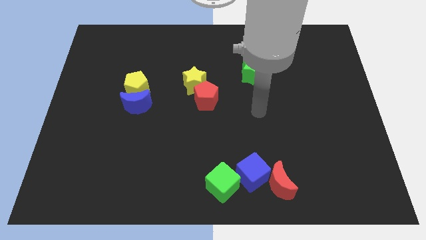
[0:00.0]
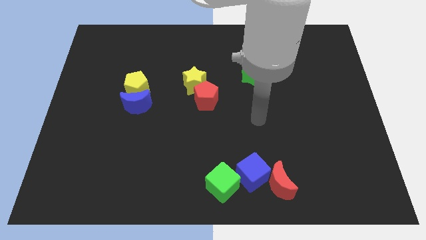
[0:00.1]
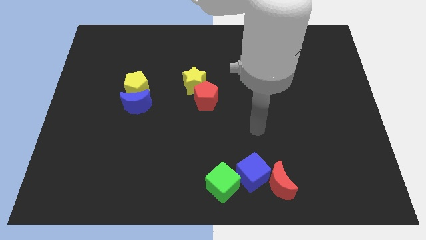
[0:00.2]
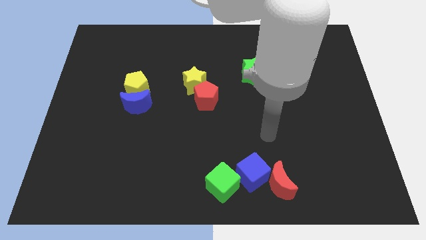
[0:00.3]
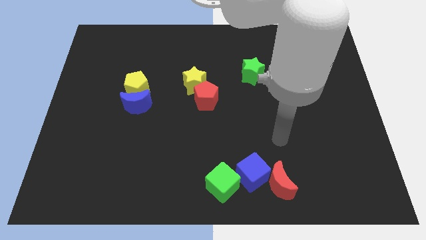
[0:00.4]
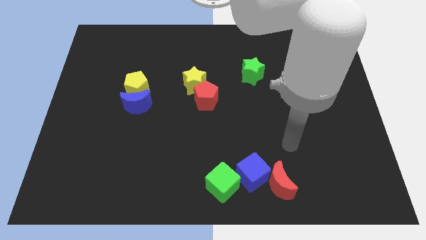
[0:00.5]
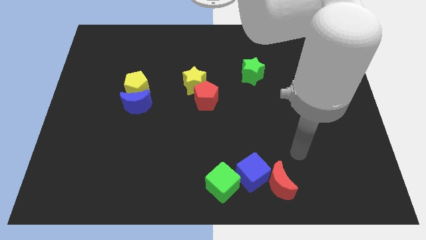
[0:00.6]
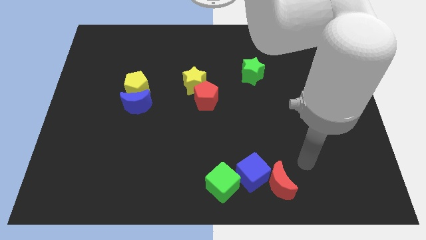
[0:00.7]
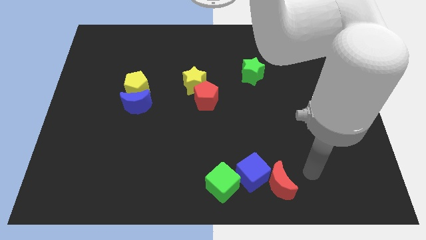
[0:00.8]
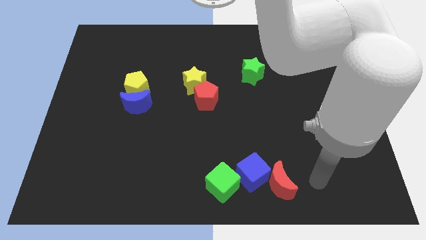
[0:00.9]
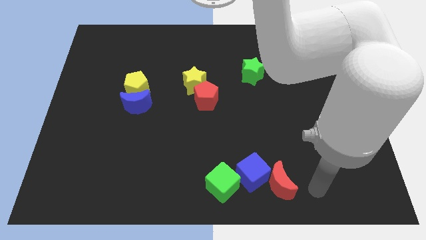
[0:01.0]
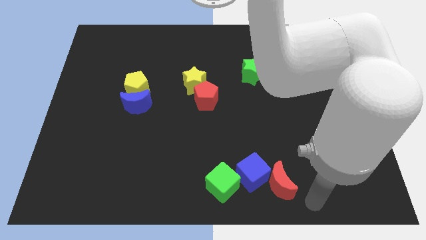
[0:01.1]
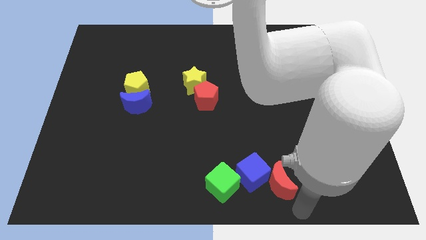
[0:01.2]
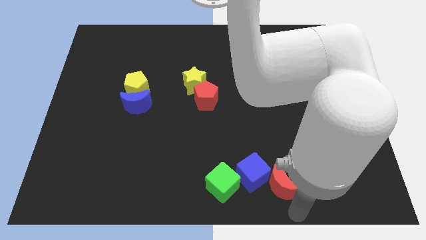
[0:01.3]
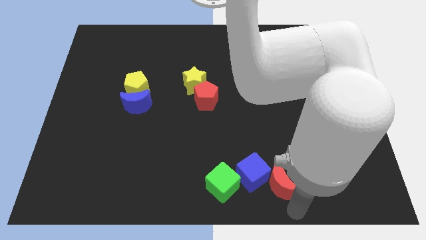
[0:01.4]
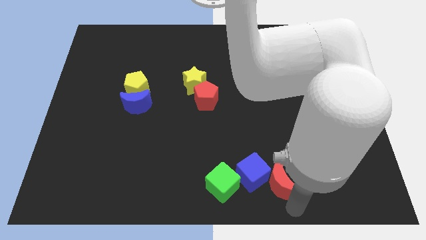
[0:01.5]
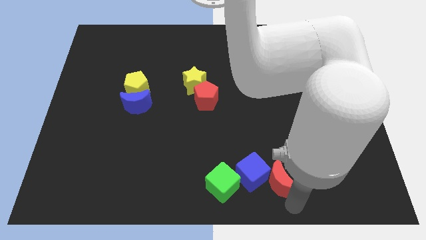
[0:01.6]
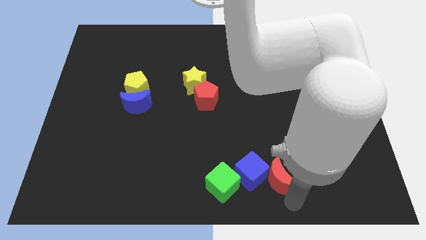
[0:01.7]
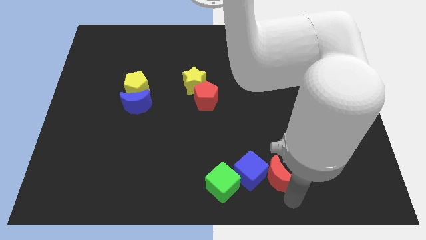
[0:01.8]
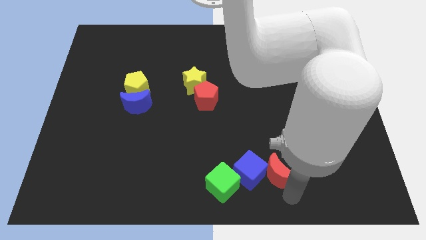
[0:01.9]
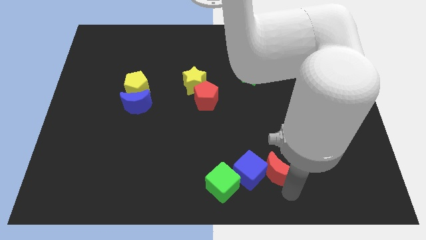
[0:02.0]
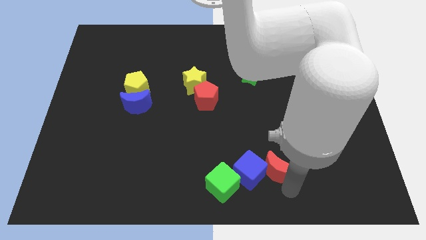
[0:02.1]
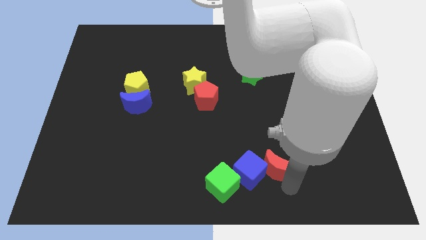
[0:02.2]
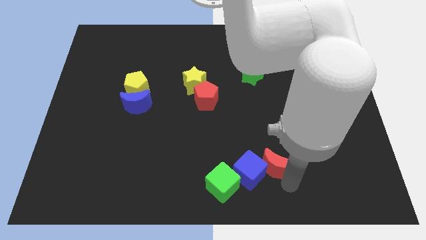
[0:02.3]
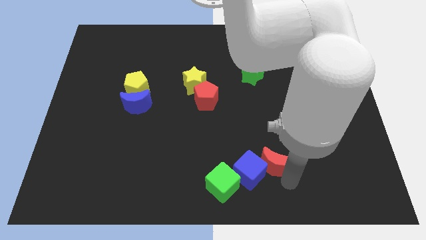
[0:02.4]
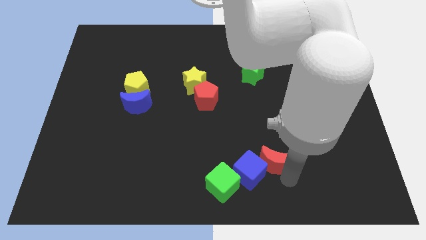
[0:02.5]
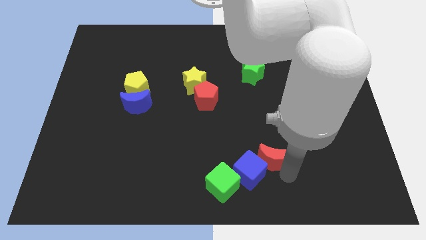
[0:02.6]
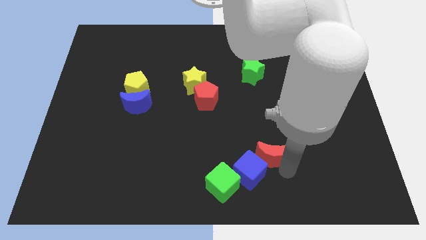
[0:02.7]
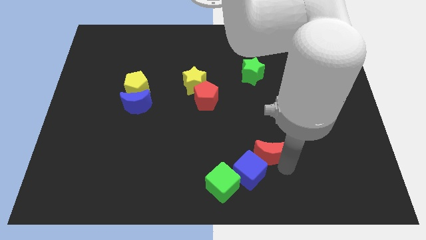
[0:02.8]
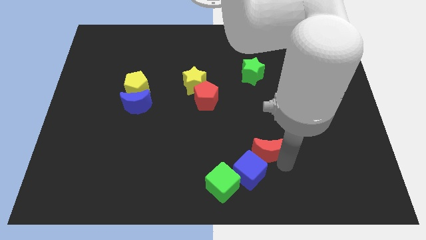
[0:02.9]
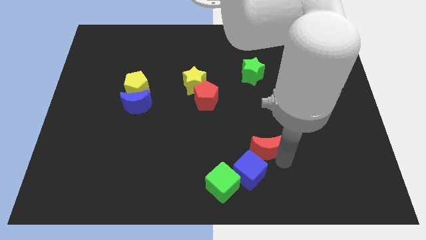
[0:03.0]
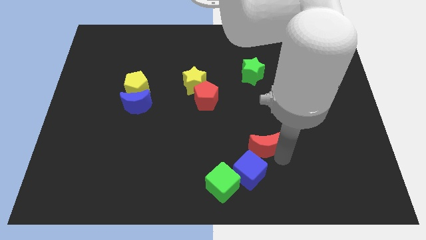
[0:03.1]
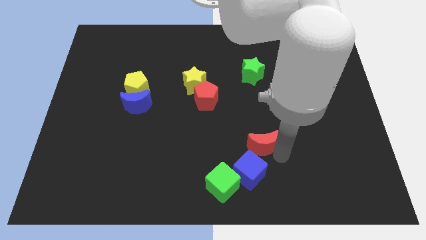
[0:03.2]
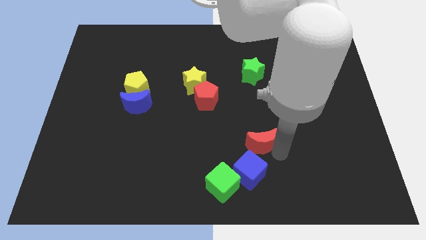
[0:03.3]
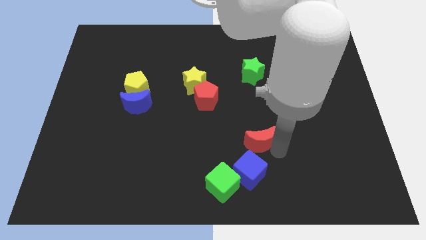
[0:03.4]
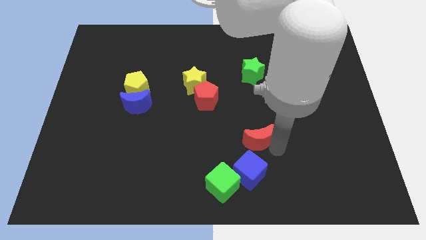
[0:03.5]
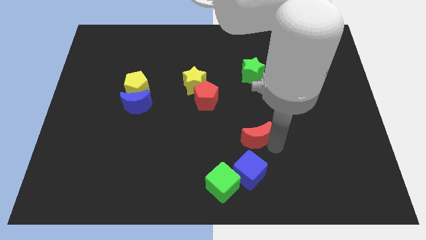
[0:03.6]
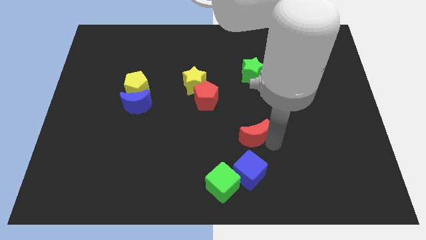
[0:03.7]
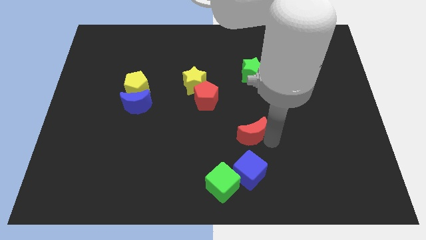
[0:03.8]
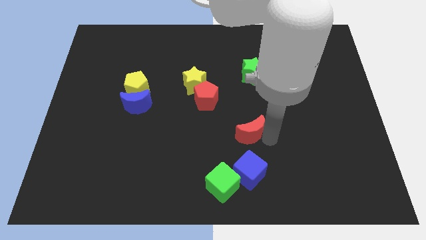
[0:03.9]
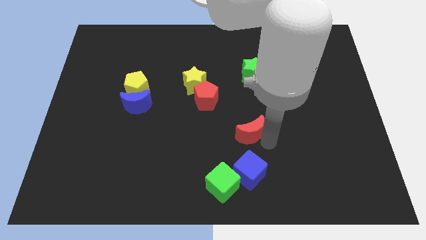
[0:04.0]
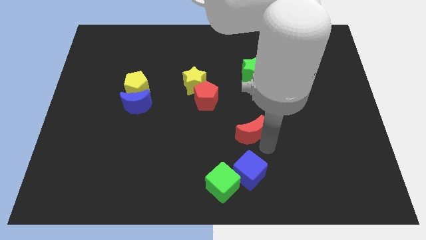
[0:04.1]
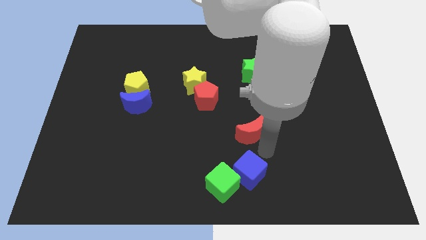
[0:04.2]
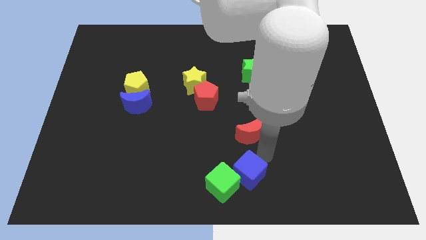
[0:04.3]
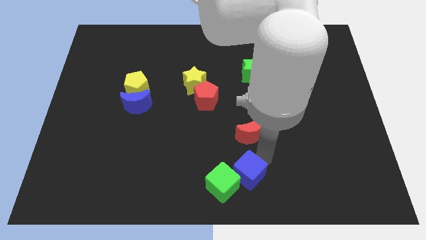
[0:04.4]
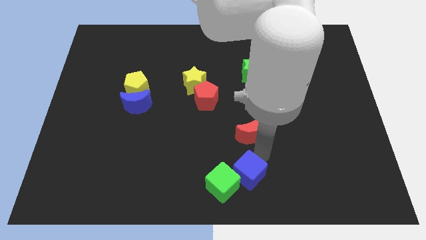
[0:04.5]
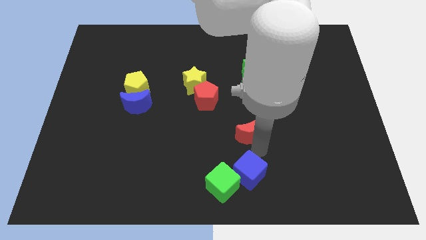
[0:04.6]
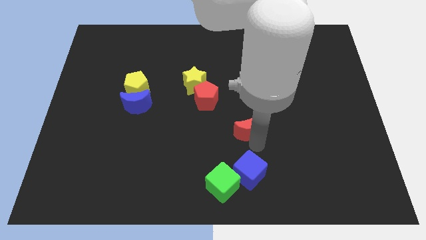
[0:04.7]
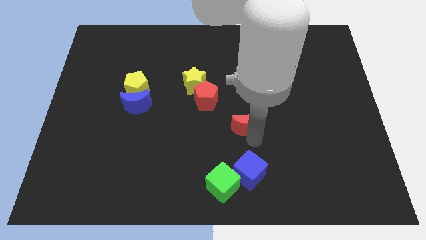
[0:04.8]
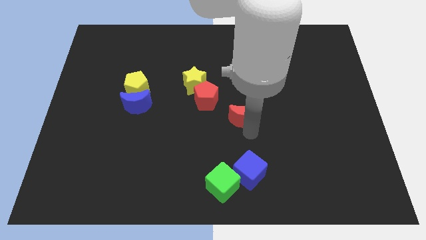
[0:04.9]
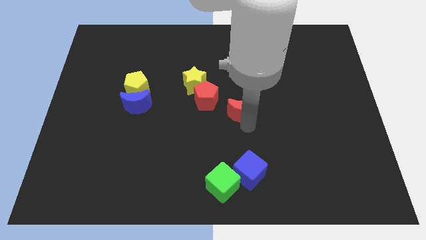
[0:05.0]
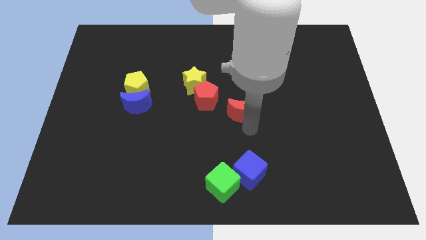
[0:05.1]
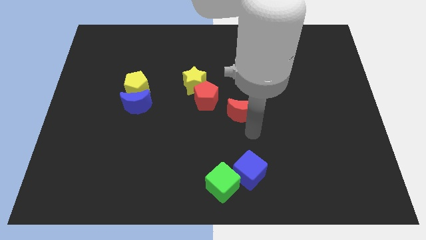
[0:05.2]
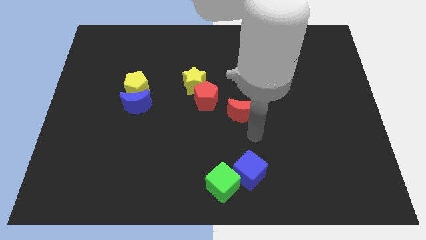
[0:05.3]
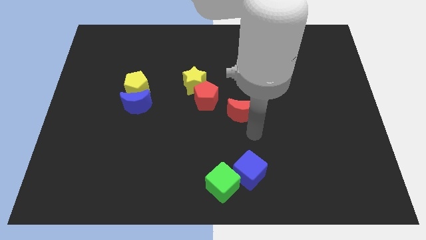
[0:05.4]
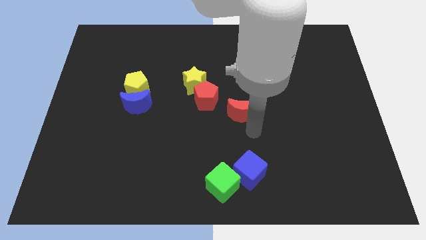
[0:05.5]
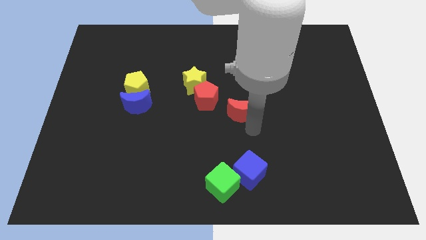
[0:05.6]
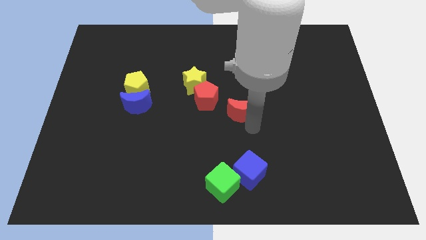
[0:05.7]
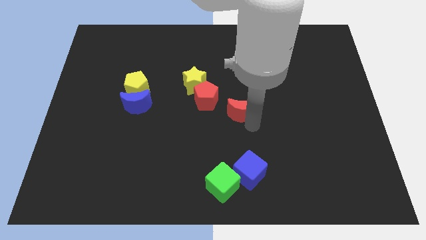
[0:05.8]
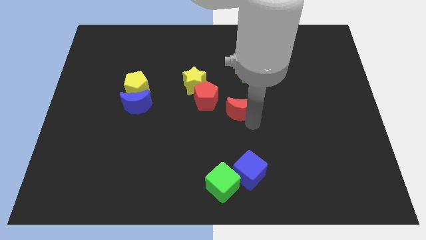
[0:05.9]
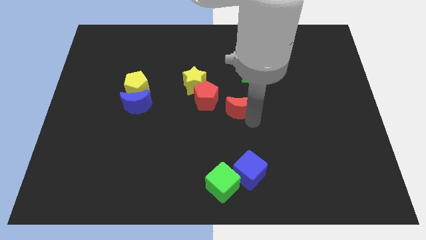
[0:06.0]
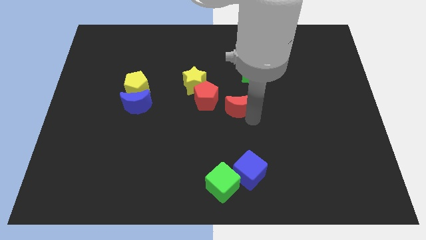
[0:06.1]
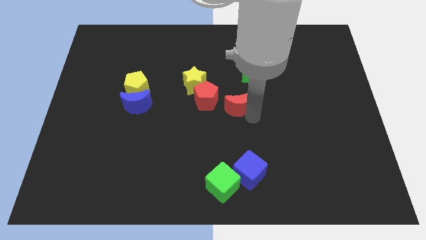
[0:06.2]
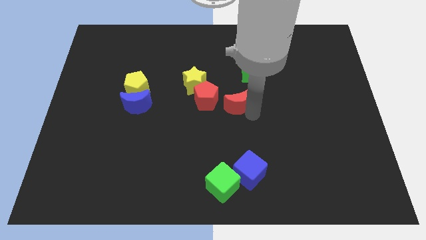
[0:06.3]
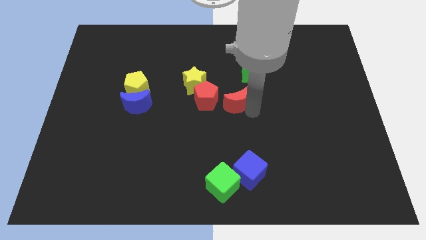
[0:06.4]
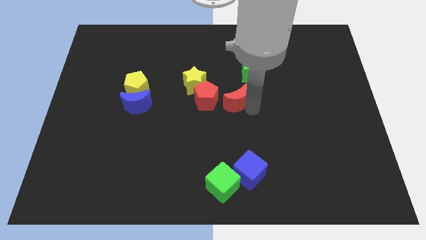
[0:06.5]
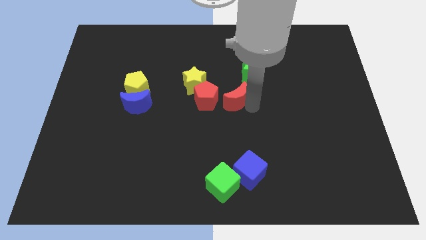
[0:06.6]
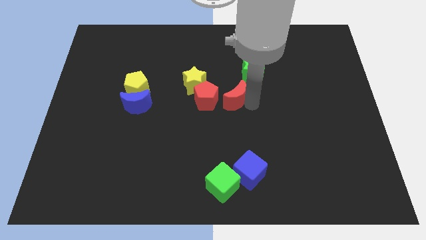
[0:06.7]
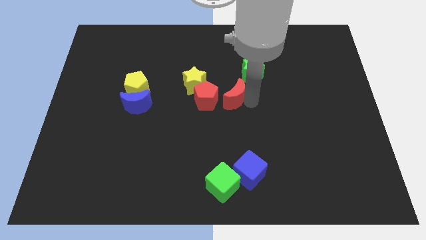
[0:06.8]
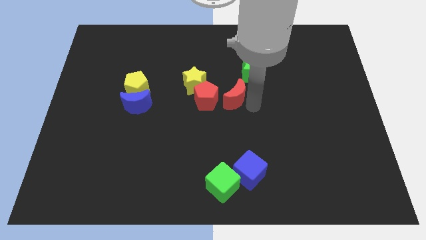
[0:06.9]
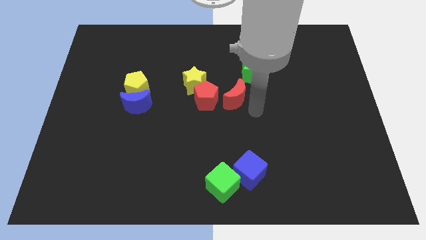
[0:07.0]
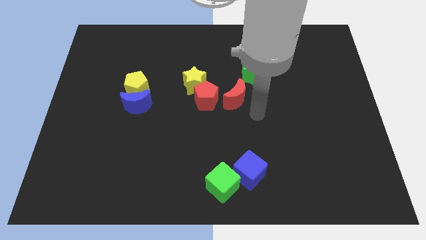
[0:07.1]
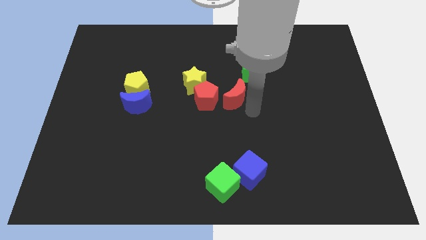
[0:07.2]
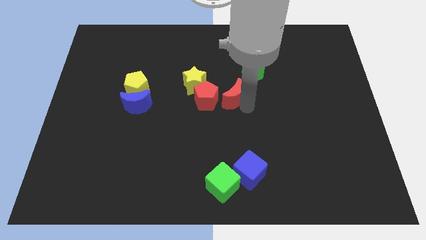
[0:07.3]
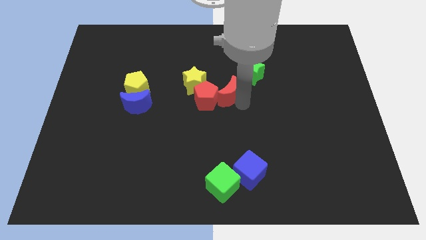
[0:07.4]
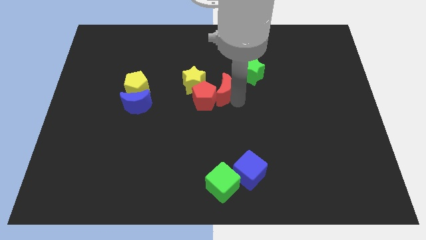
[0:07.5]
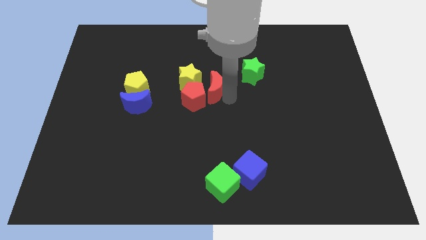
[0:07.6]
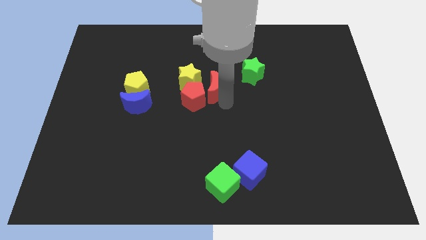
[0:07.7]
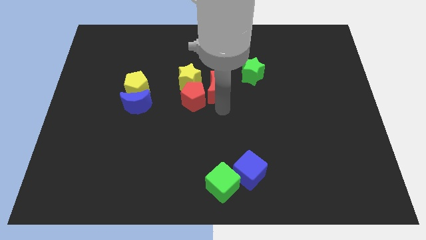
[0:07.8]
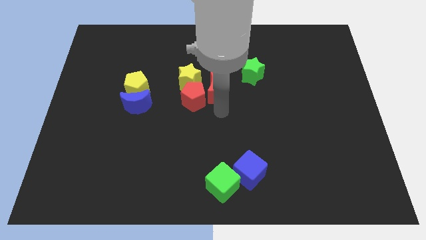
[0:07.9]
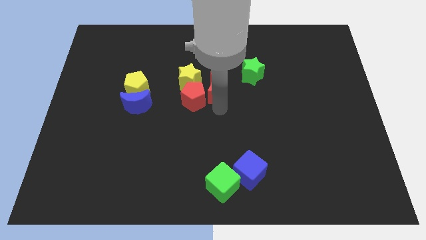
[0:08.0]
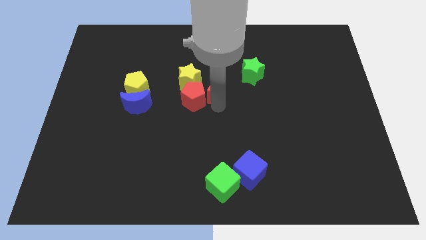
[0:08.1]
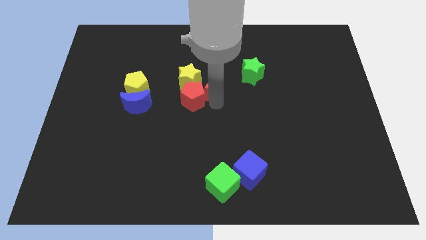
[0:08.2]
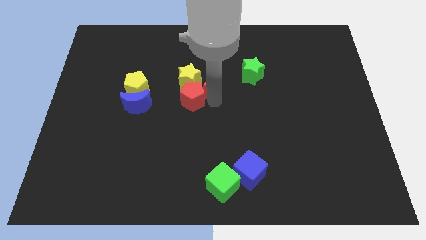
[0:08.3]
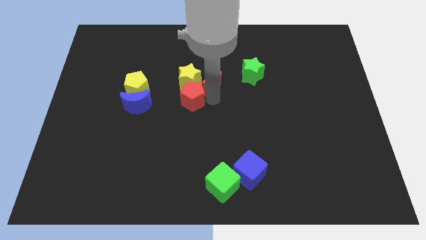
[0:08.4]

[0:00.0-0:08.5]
slide the red moon to the top right of the yellow star
